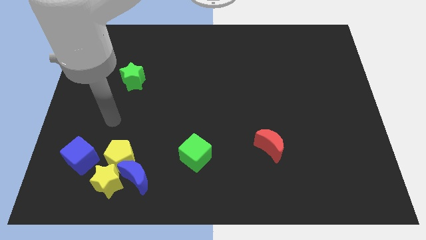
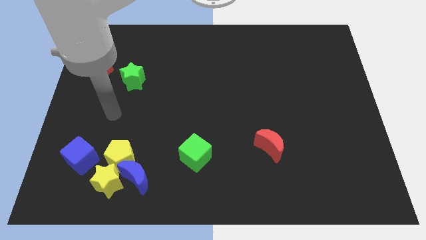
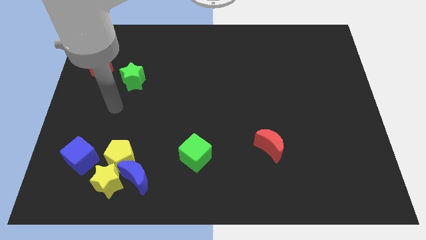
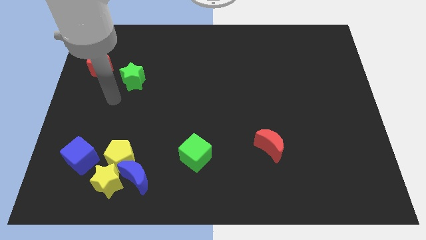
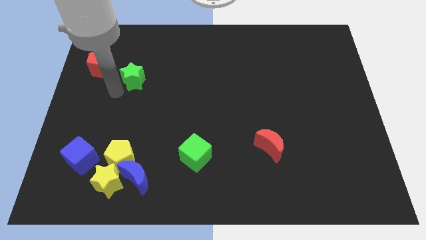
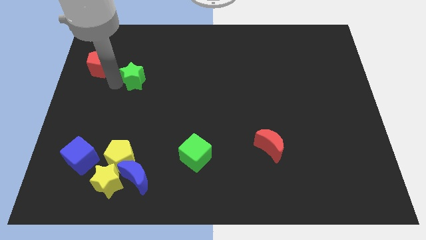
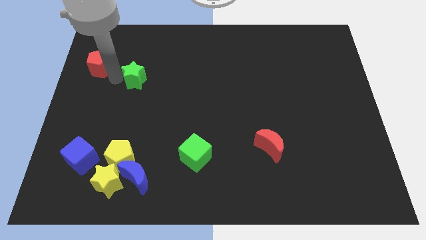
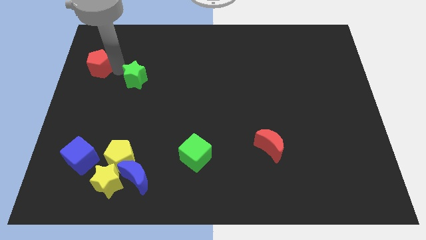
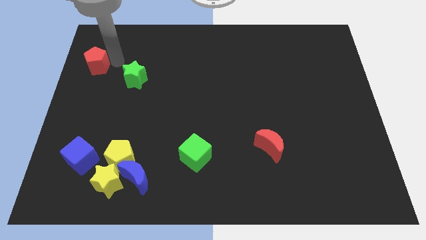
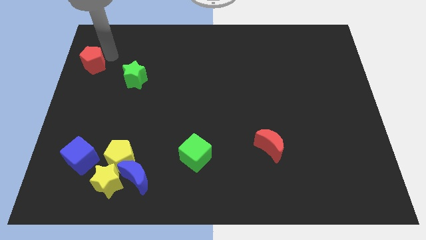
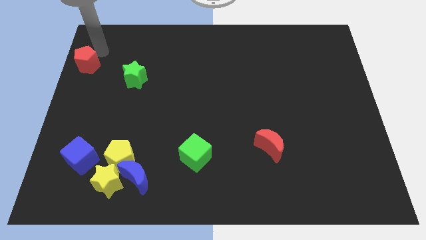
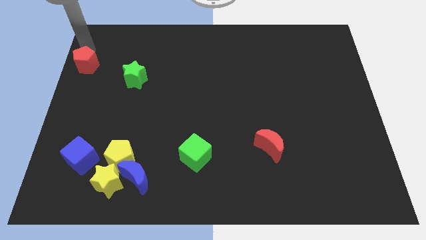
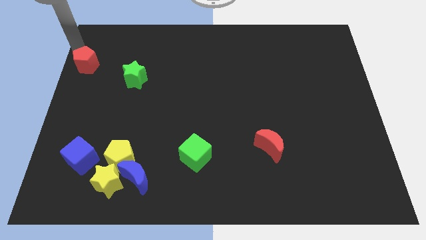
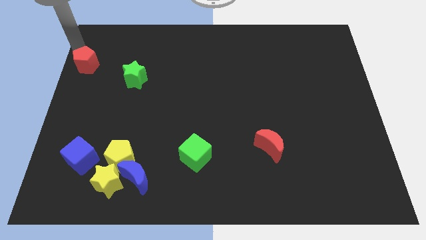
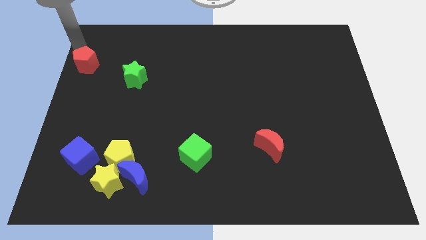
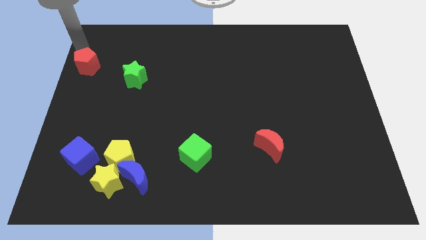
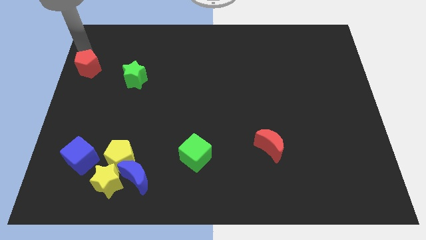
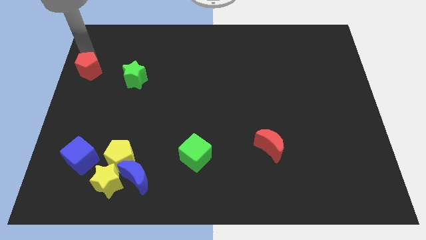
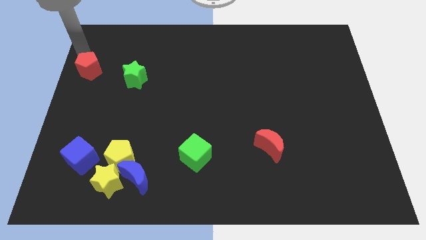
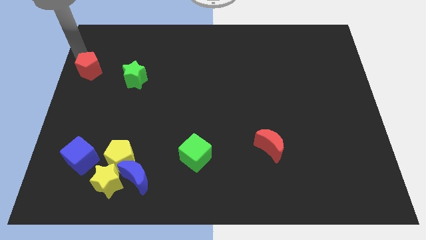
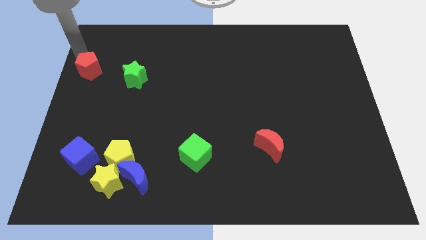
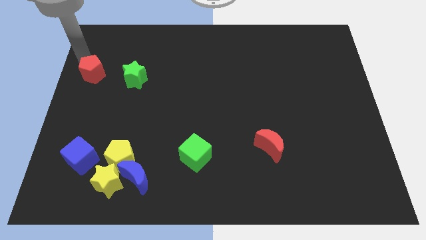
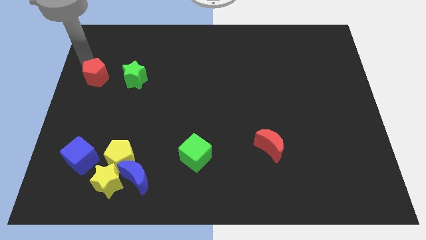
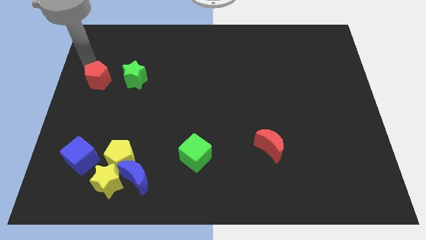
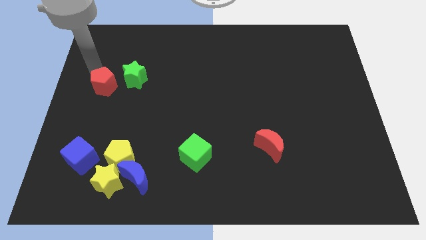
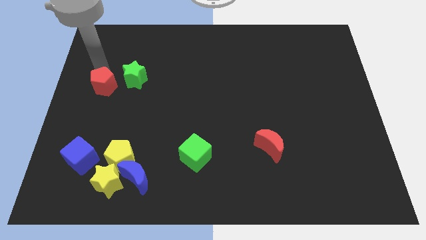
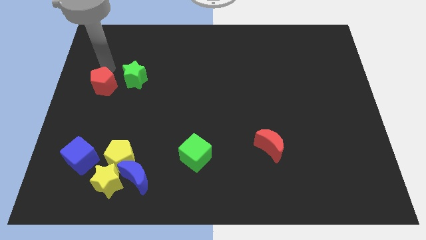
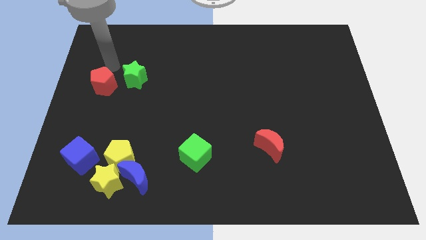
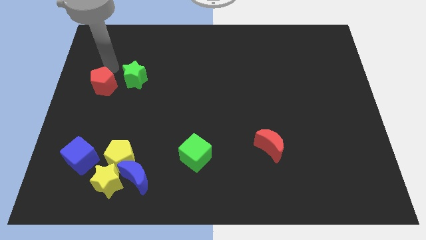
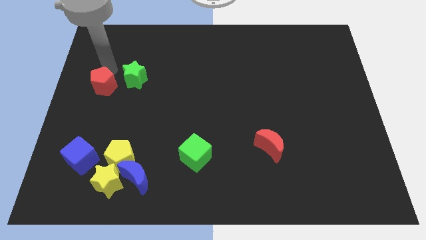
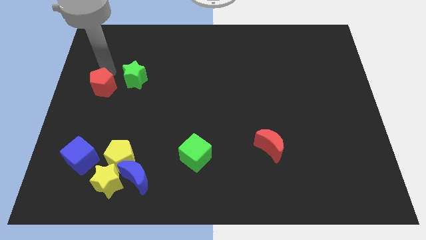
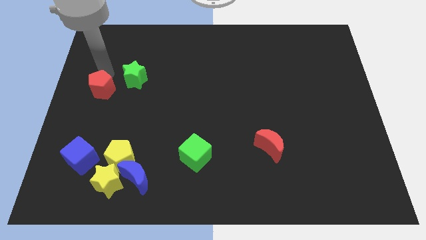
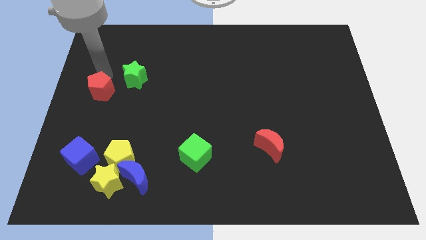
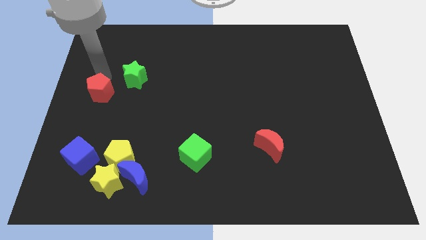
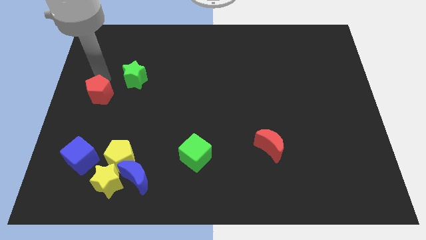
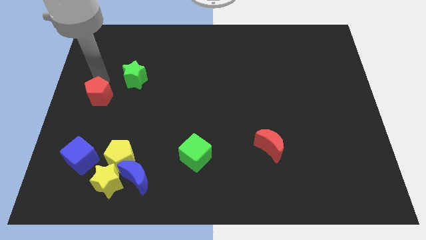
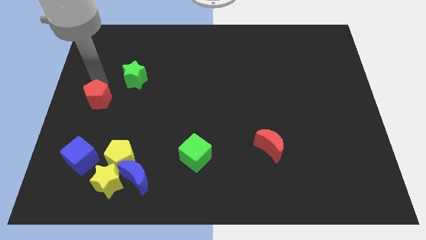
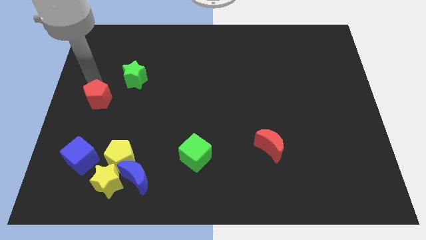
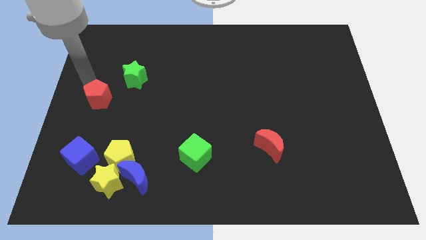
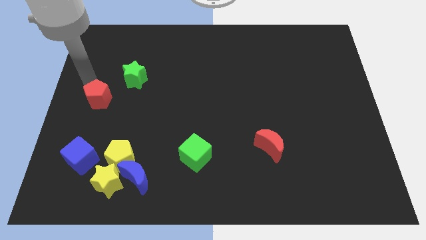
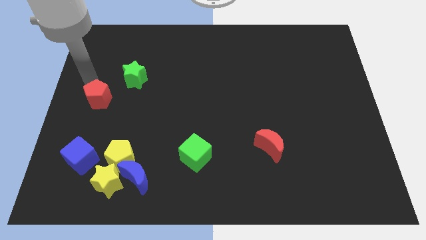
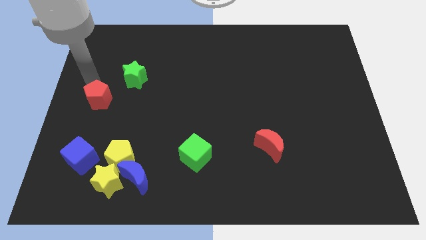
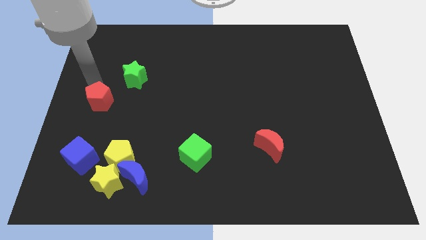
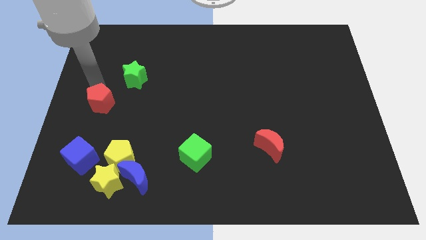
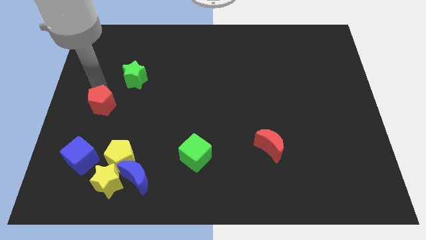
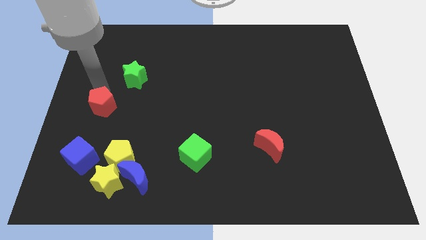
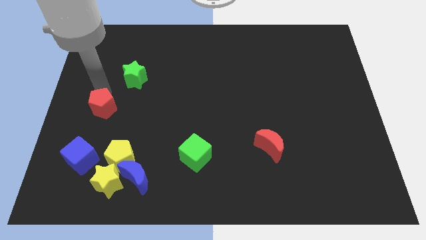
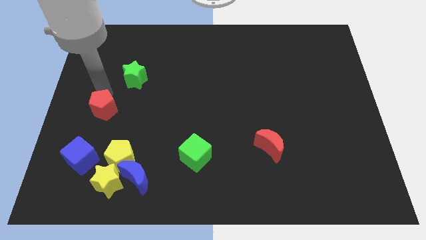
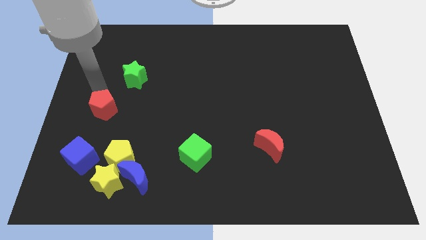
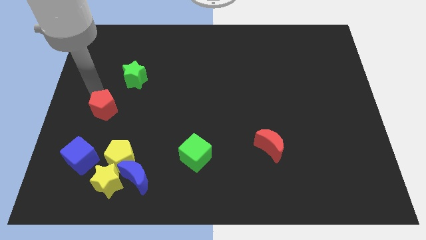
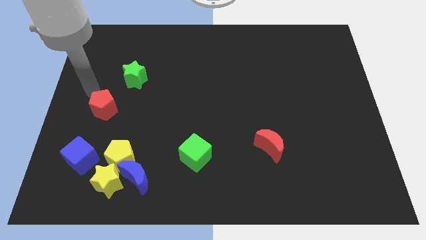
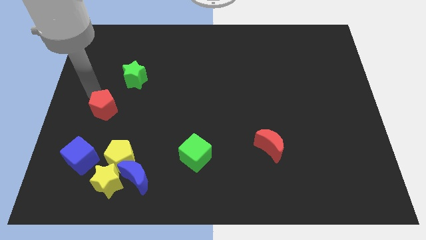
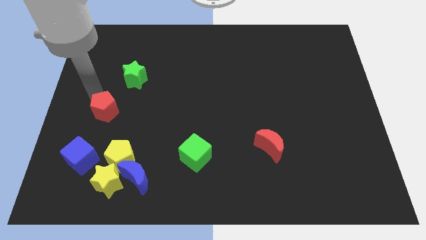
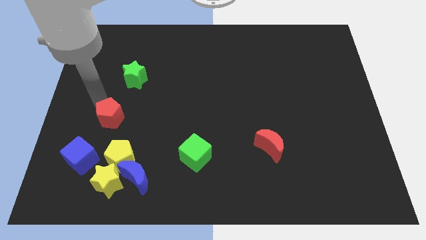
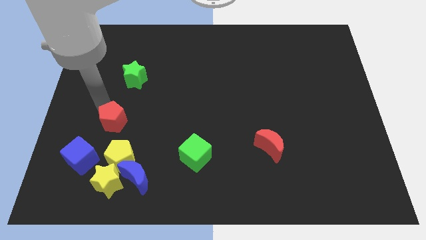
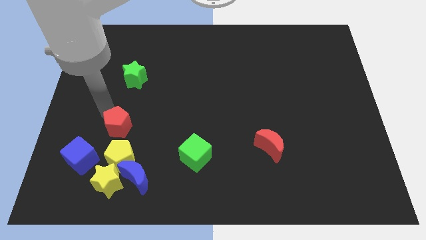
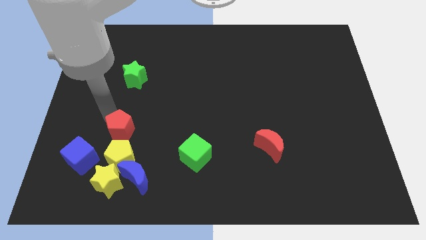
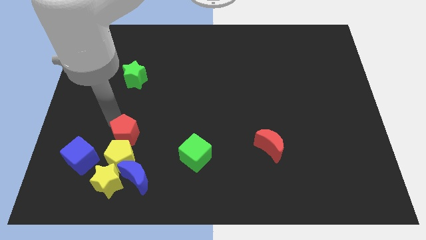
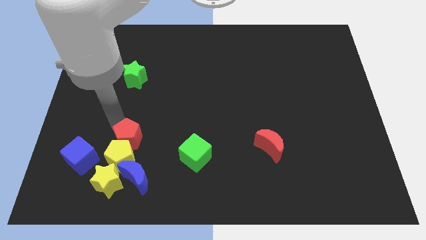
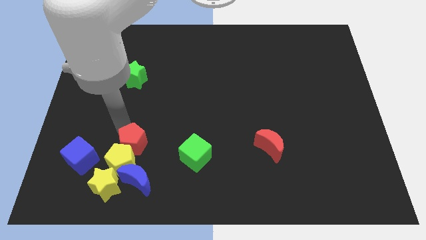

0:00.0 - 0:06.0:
push the red pentagon right of the blue cube

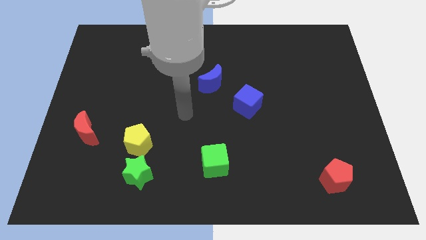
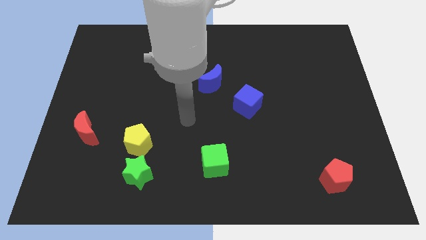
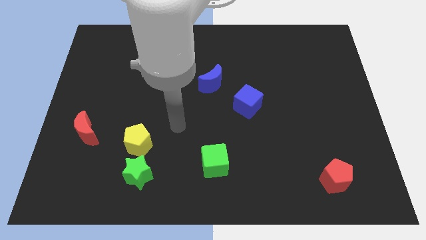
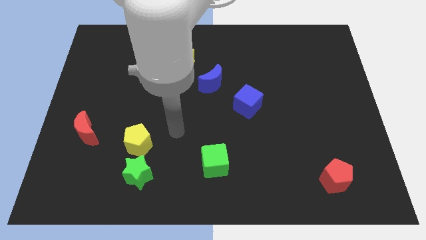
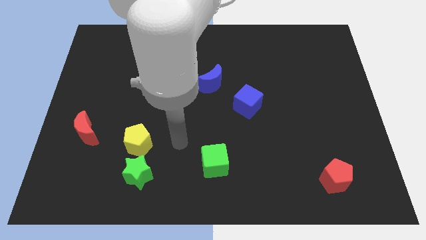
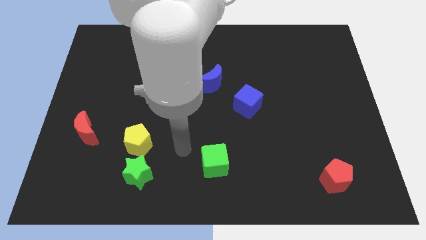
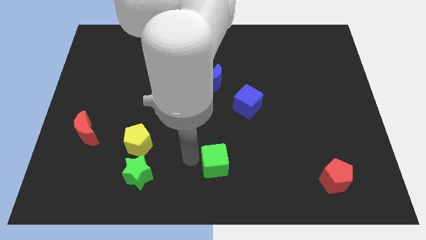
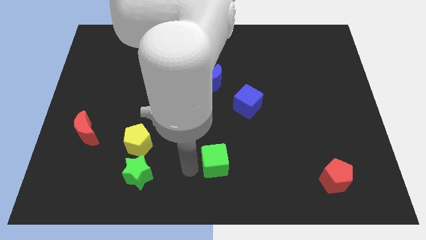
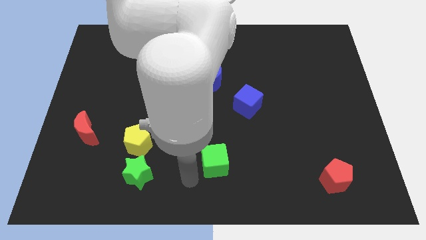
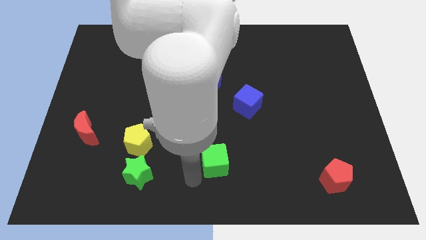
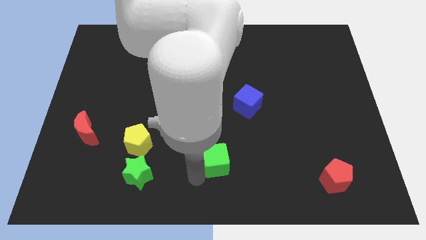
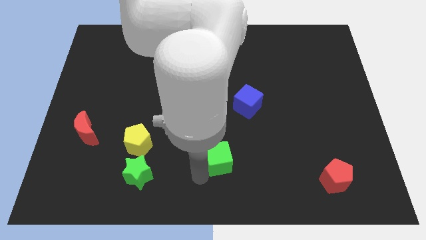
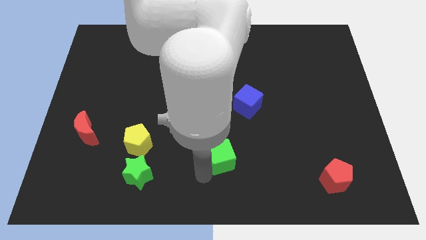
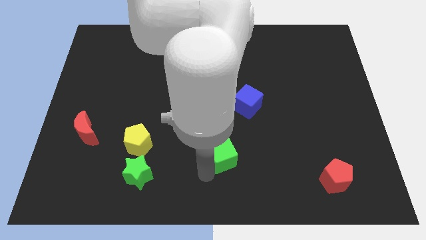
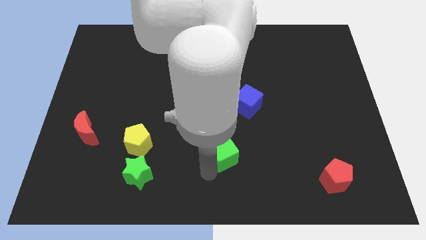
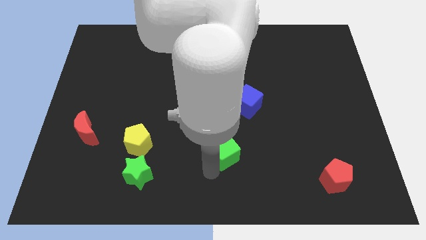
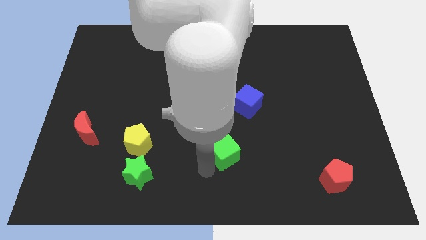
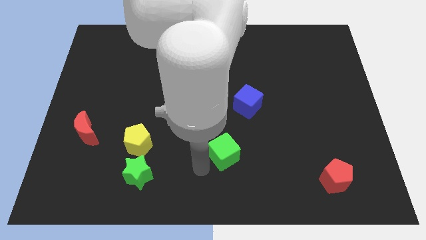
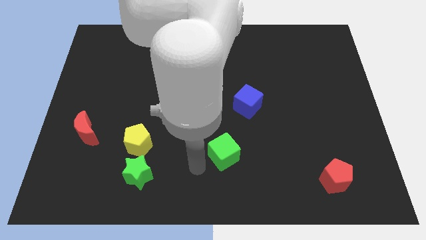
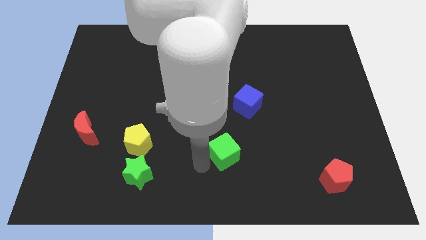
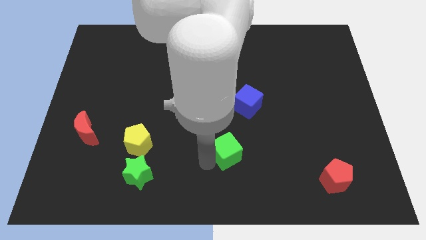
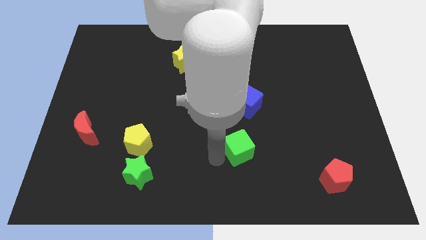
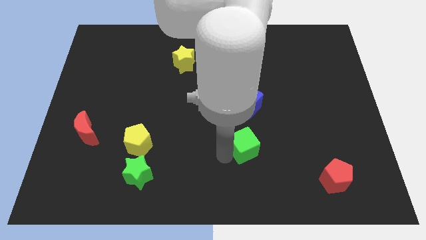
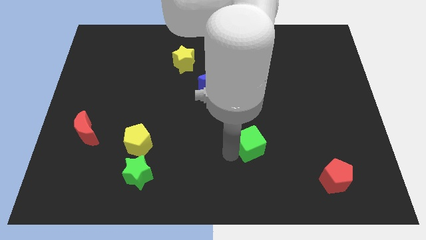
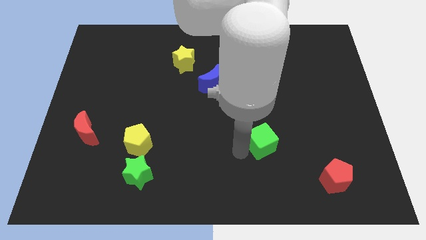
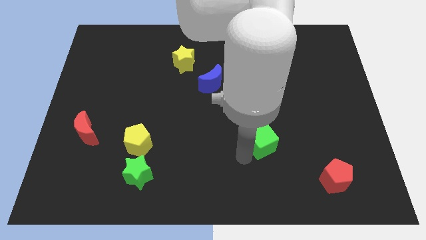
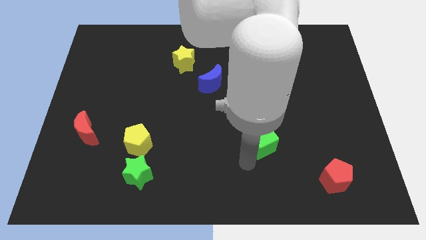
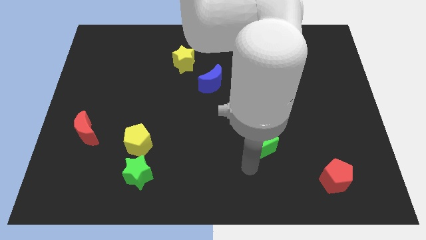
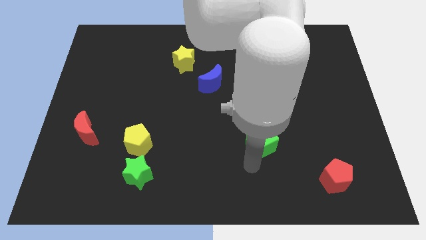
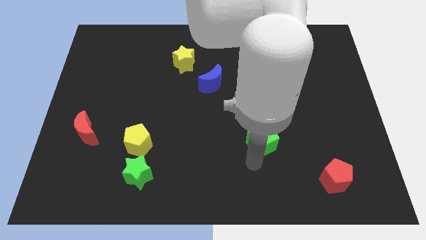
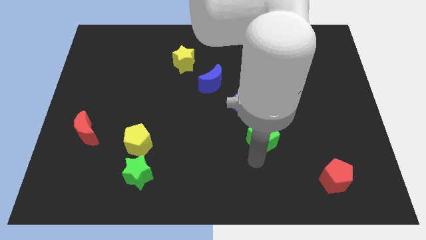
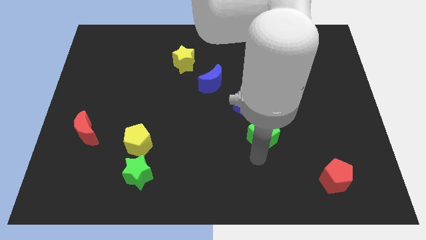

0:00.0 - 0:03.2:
slide the green cube to the bottom right of the blue cube
